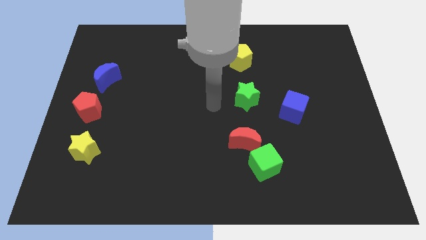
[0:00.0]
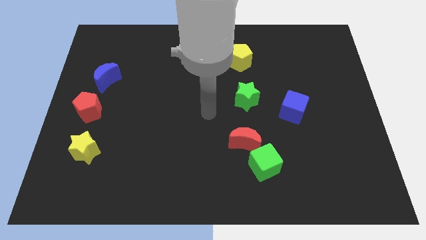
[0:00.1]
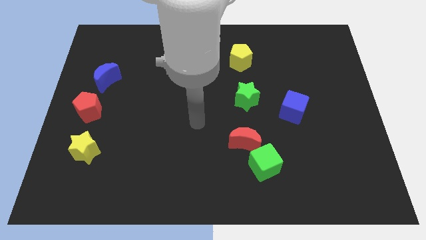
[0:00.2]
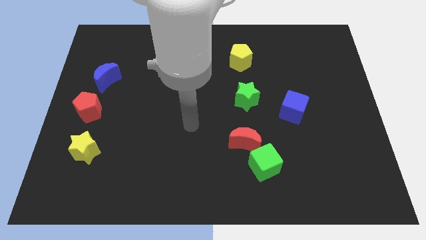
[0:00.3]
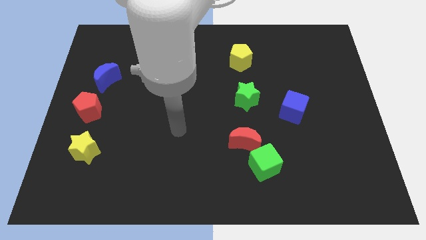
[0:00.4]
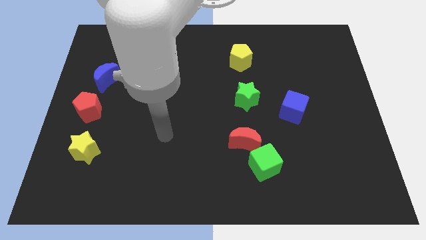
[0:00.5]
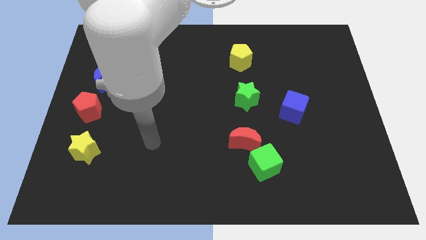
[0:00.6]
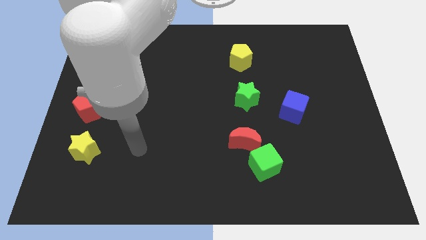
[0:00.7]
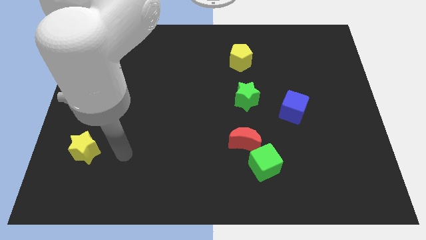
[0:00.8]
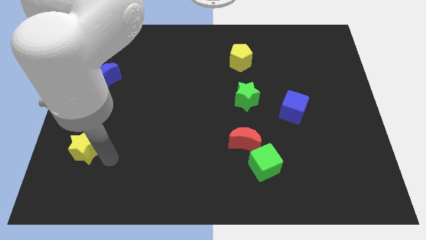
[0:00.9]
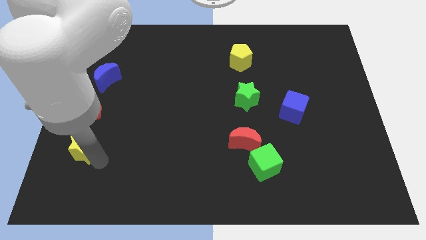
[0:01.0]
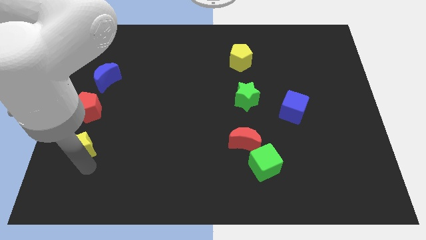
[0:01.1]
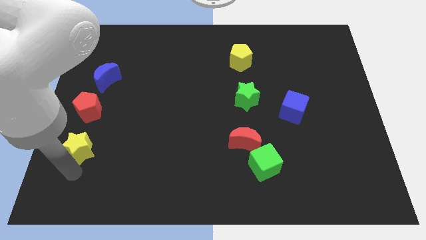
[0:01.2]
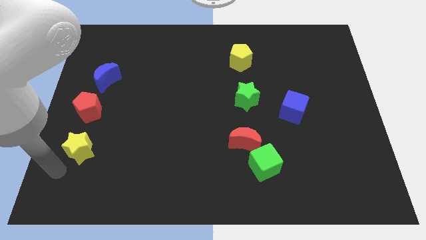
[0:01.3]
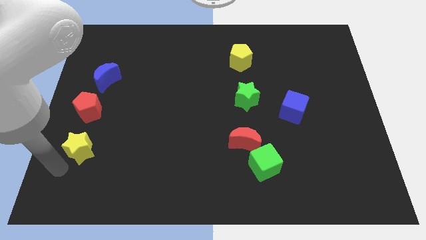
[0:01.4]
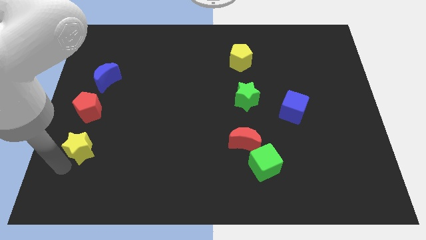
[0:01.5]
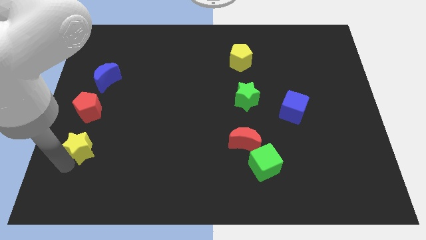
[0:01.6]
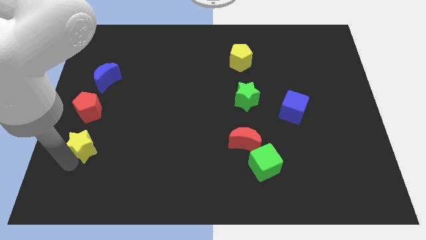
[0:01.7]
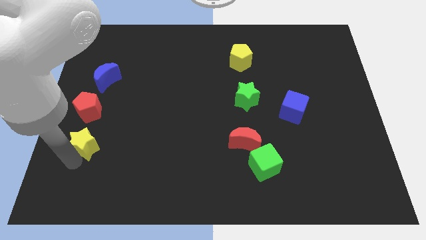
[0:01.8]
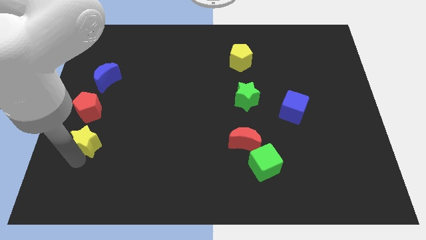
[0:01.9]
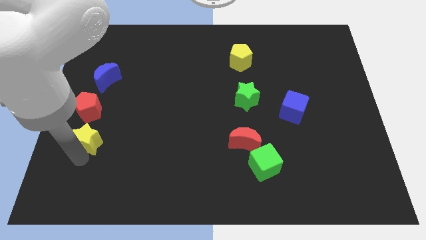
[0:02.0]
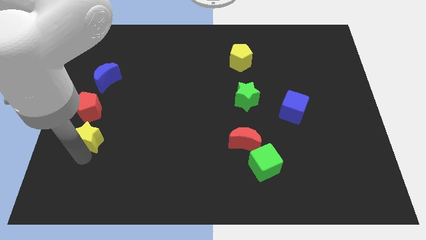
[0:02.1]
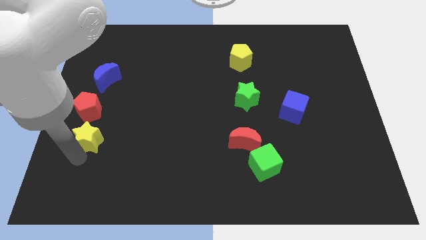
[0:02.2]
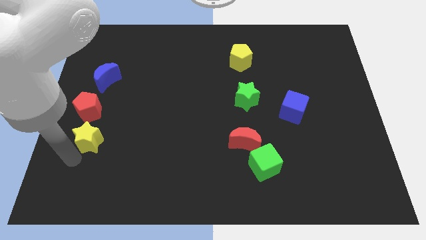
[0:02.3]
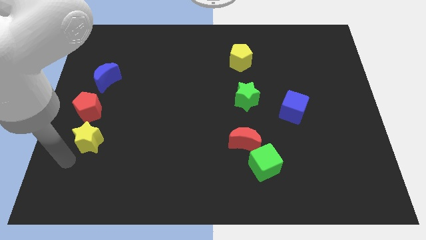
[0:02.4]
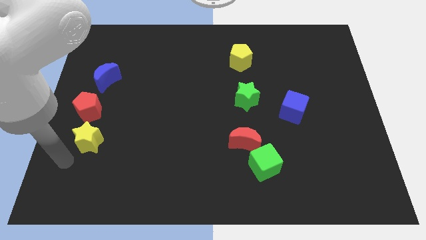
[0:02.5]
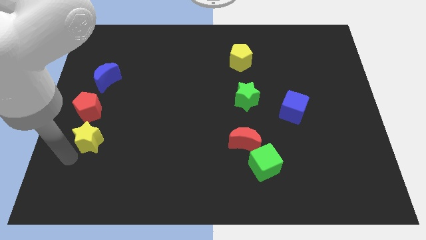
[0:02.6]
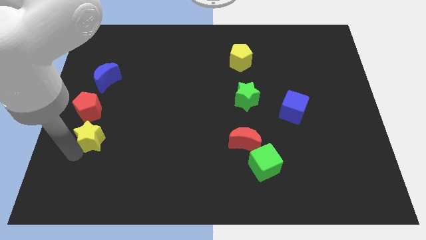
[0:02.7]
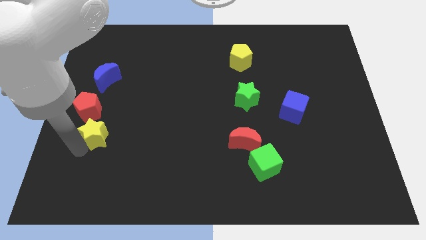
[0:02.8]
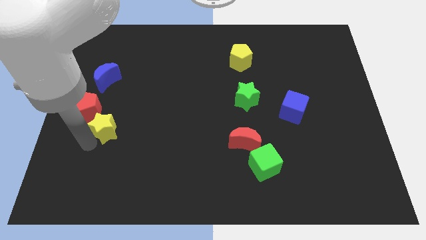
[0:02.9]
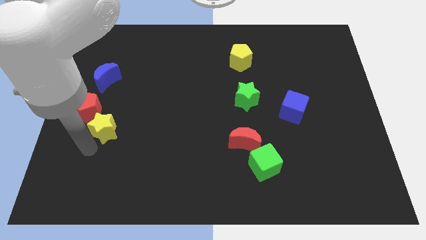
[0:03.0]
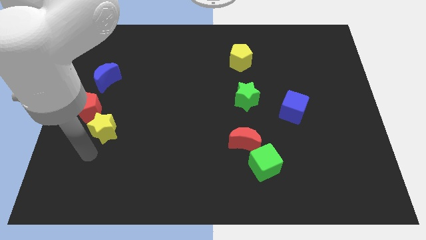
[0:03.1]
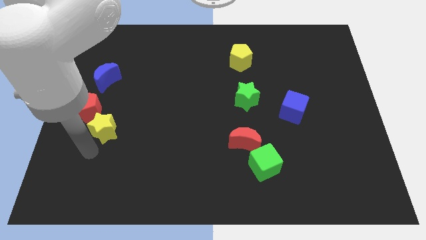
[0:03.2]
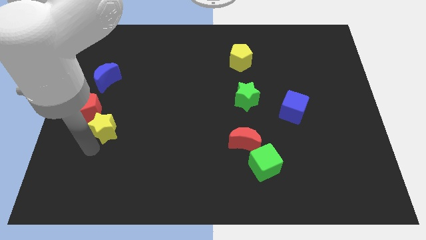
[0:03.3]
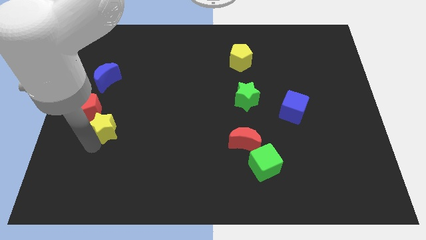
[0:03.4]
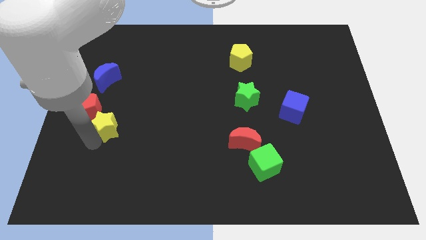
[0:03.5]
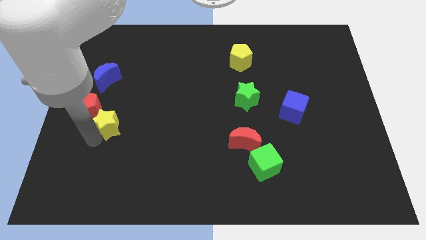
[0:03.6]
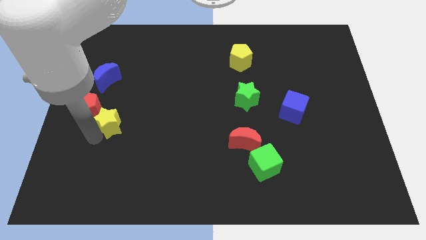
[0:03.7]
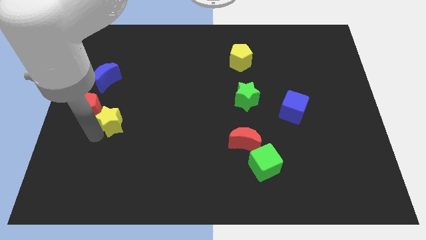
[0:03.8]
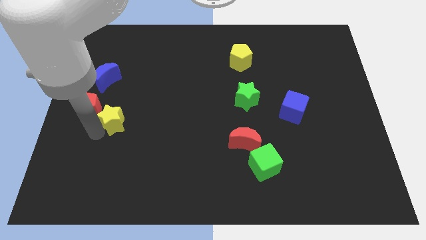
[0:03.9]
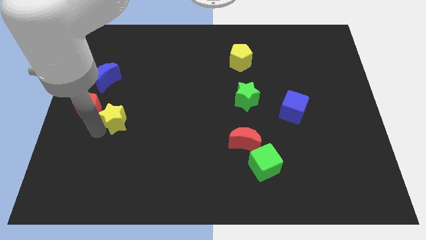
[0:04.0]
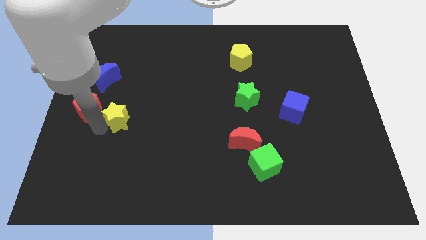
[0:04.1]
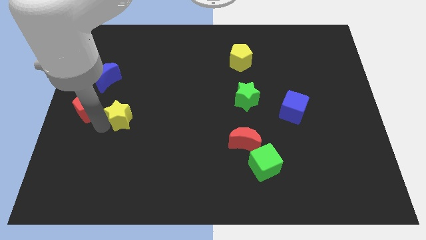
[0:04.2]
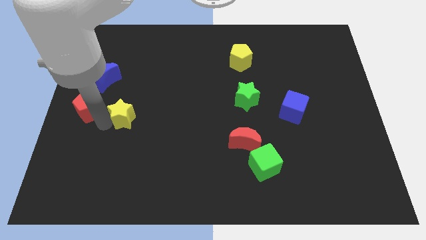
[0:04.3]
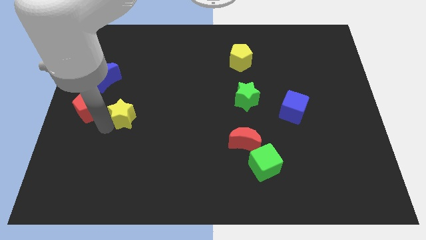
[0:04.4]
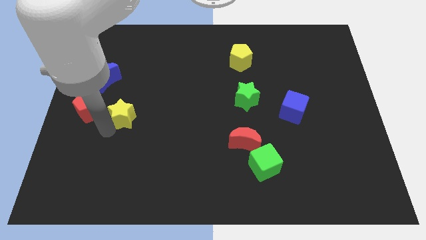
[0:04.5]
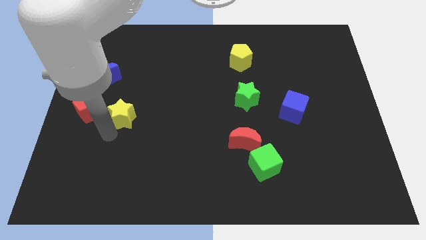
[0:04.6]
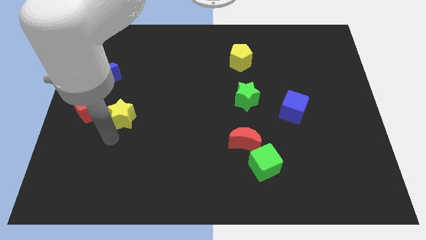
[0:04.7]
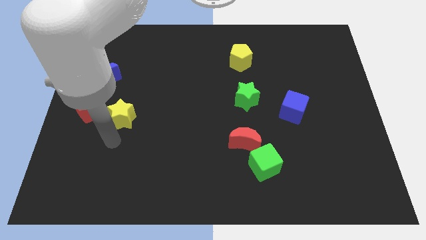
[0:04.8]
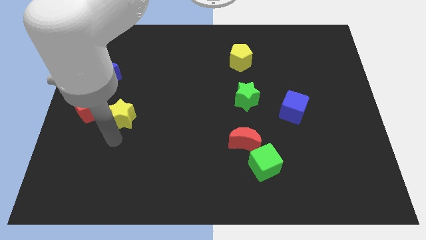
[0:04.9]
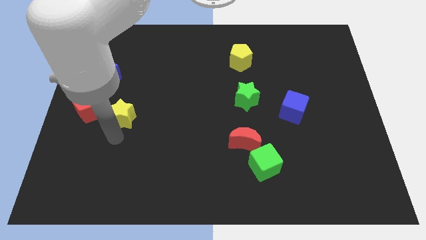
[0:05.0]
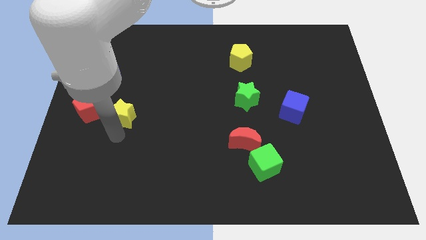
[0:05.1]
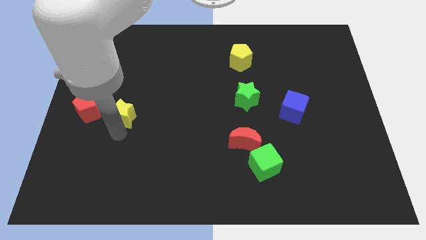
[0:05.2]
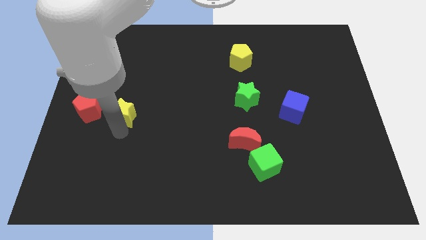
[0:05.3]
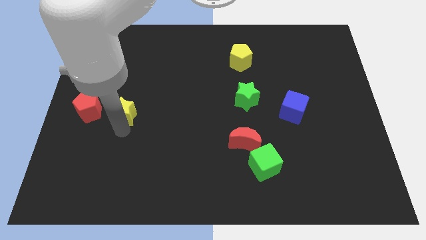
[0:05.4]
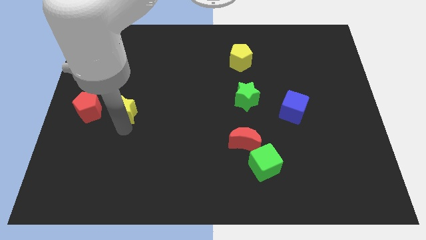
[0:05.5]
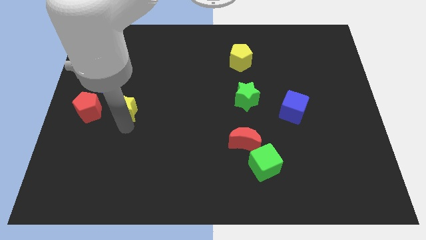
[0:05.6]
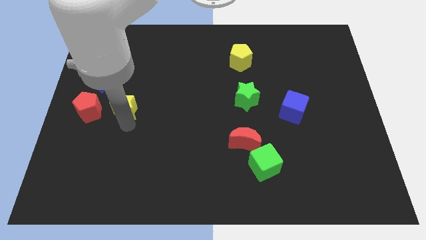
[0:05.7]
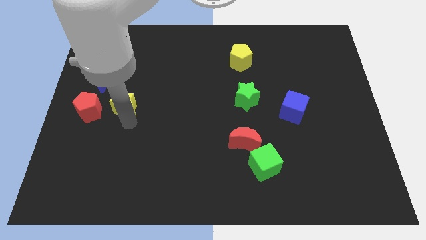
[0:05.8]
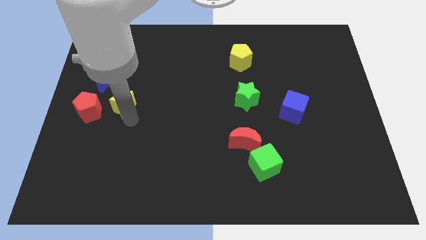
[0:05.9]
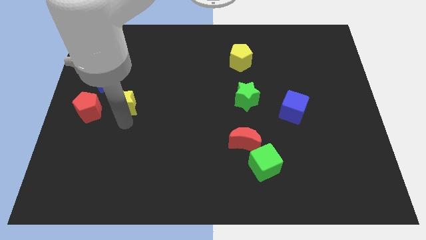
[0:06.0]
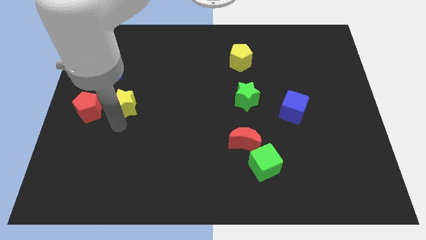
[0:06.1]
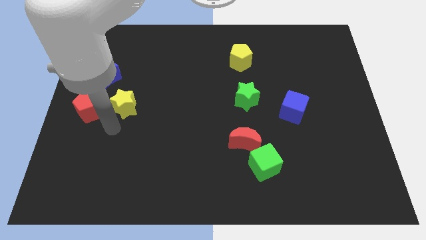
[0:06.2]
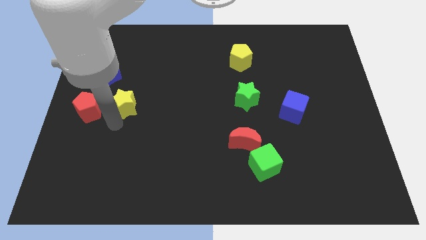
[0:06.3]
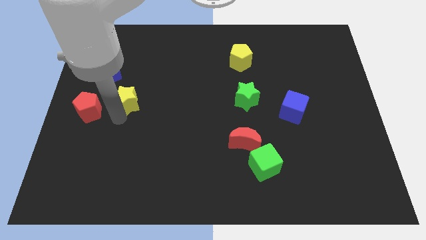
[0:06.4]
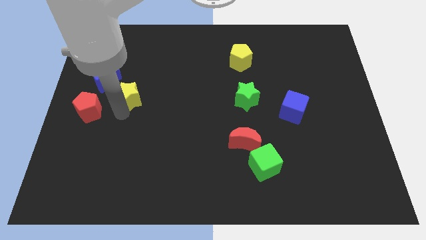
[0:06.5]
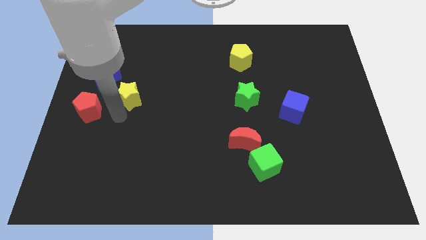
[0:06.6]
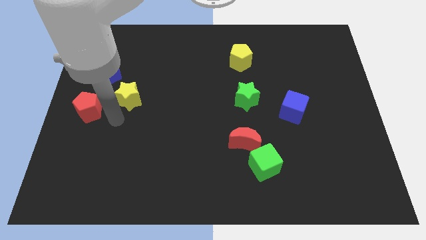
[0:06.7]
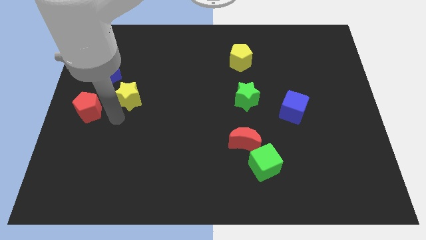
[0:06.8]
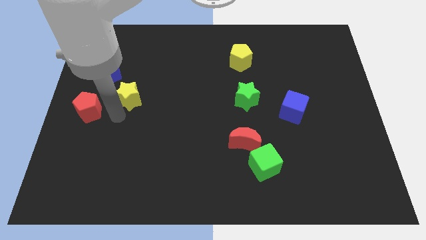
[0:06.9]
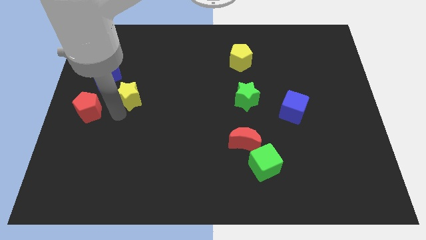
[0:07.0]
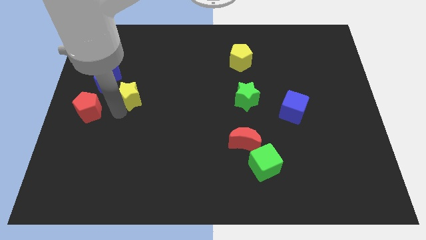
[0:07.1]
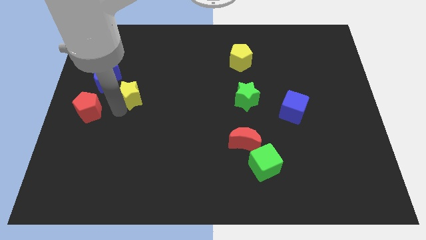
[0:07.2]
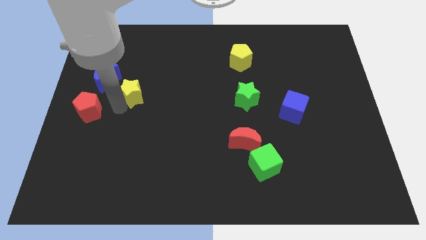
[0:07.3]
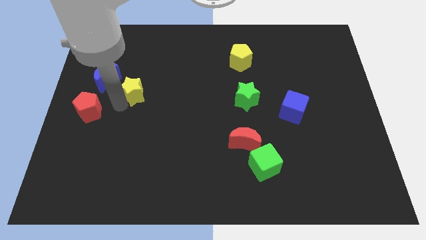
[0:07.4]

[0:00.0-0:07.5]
push the yellow star to the right of the blue moon

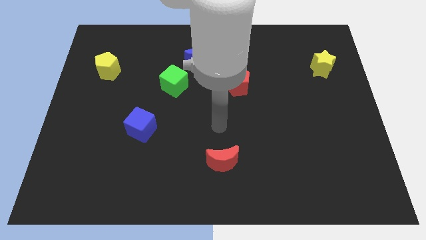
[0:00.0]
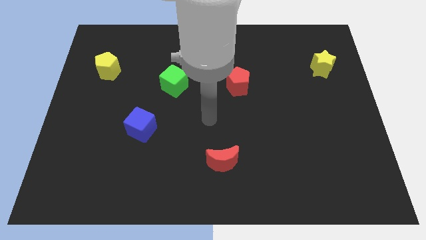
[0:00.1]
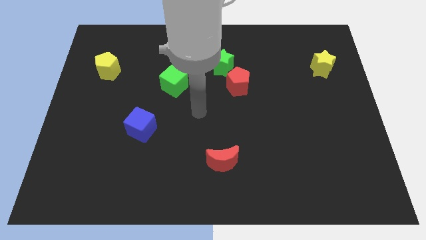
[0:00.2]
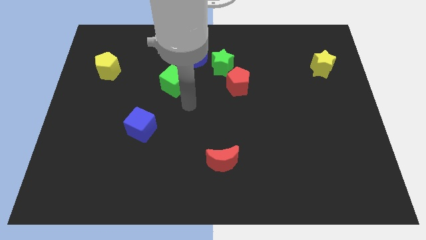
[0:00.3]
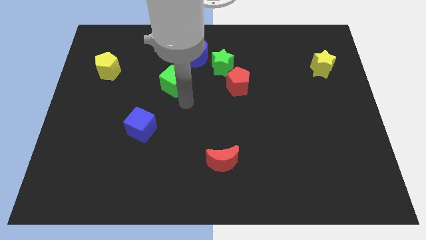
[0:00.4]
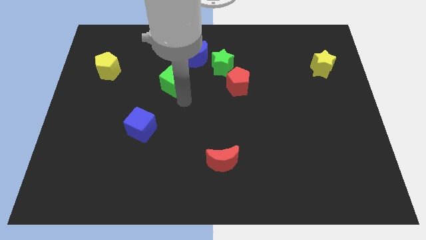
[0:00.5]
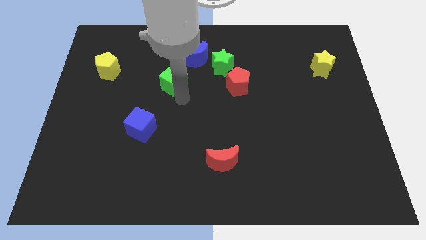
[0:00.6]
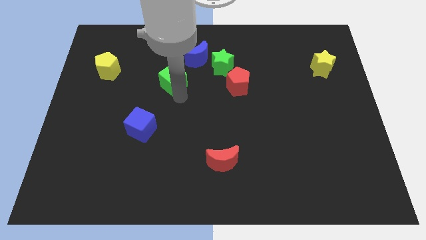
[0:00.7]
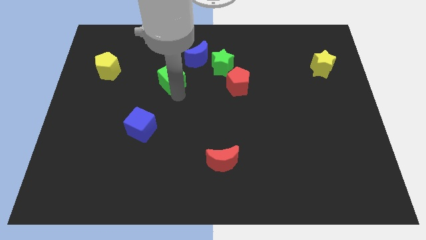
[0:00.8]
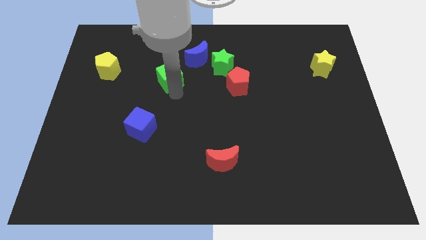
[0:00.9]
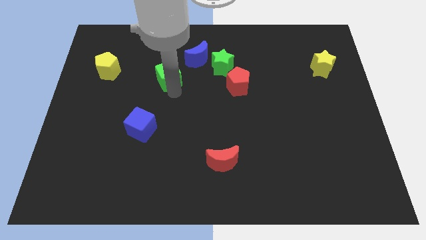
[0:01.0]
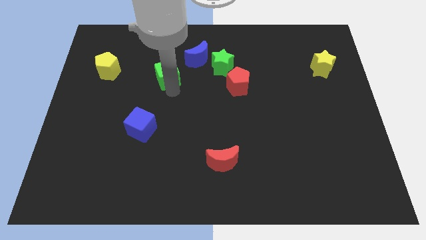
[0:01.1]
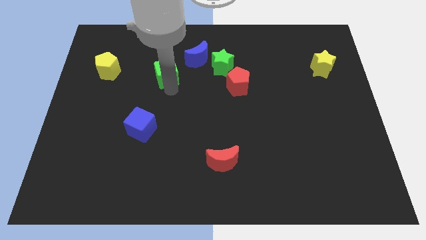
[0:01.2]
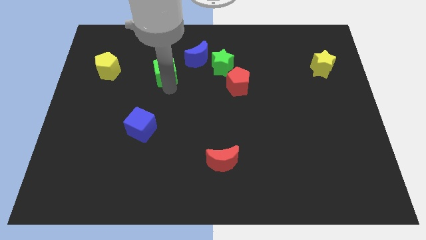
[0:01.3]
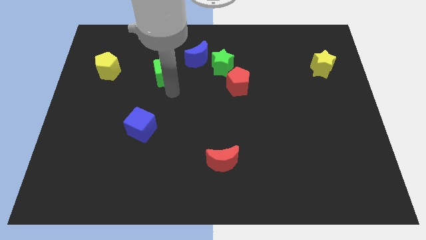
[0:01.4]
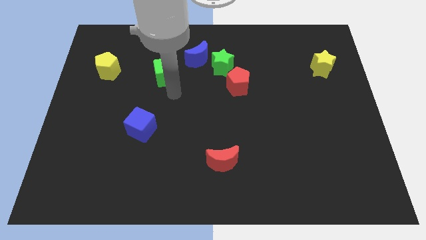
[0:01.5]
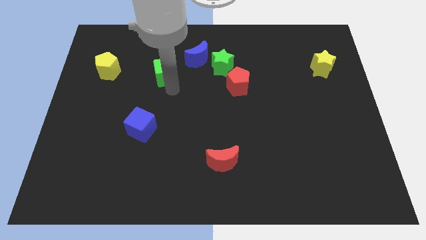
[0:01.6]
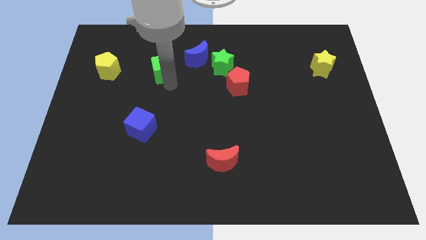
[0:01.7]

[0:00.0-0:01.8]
put the green cube to the left of the blue moon
